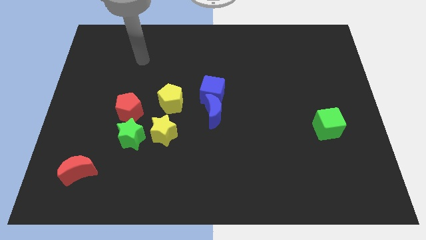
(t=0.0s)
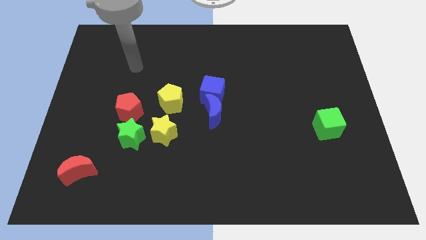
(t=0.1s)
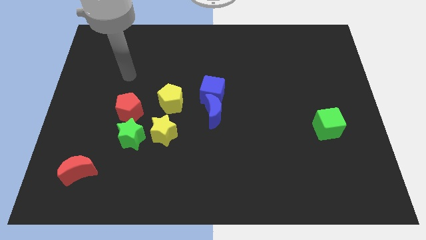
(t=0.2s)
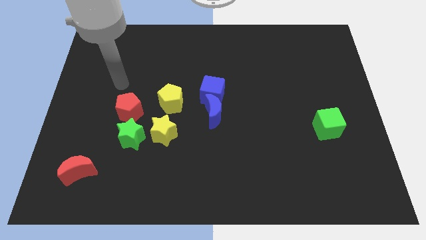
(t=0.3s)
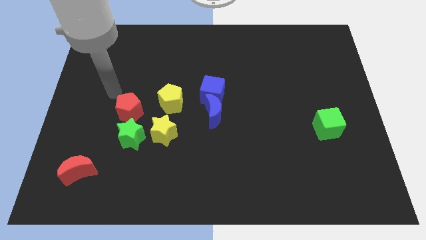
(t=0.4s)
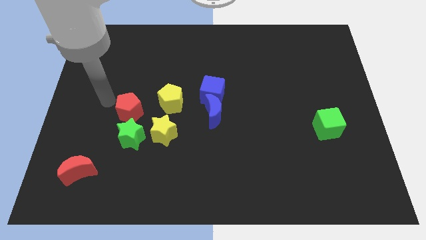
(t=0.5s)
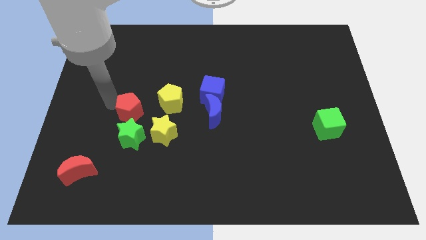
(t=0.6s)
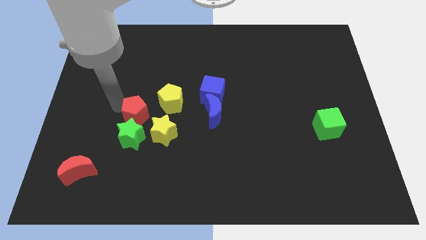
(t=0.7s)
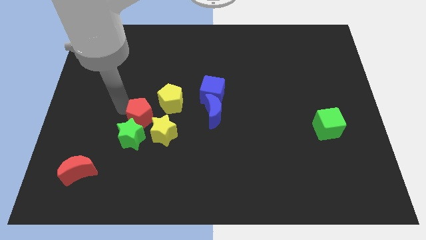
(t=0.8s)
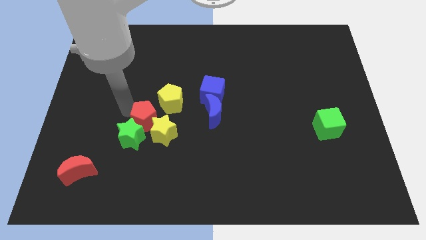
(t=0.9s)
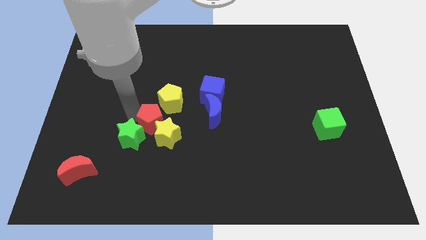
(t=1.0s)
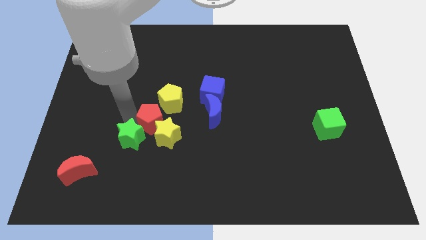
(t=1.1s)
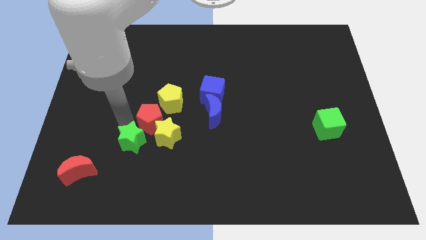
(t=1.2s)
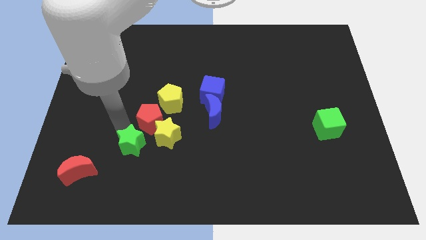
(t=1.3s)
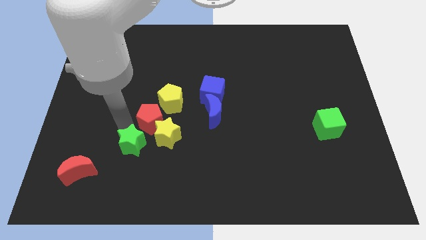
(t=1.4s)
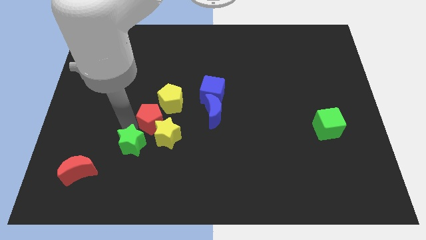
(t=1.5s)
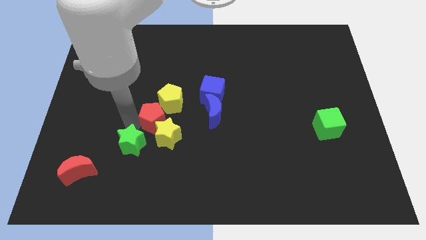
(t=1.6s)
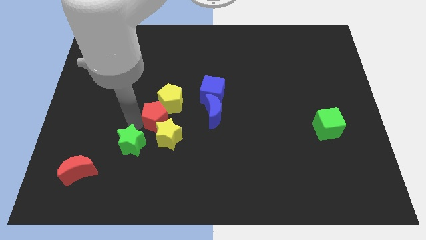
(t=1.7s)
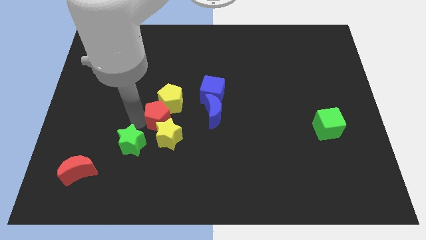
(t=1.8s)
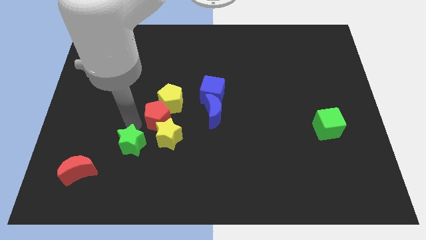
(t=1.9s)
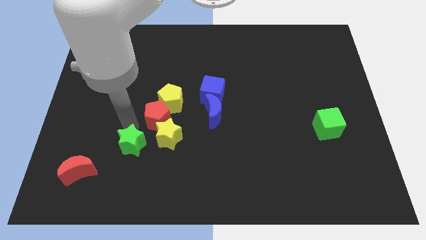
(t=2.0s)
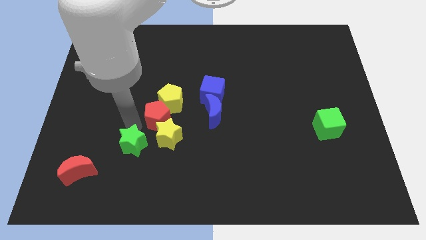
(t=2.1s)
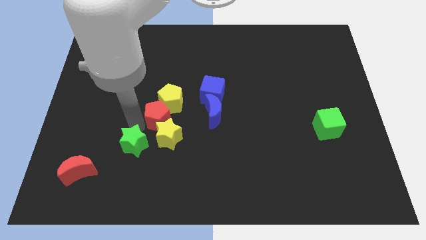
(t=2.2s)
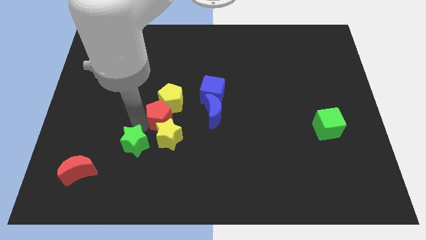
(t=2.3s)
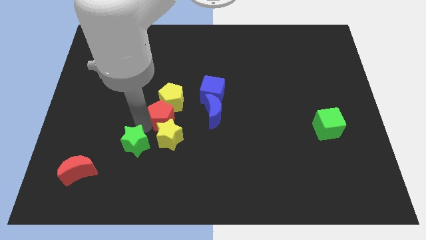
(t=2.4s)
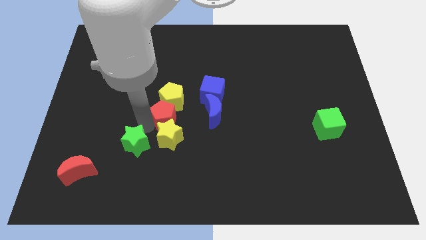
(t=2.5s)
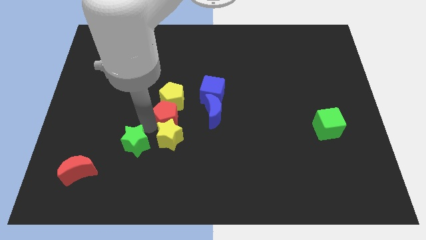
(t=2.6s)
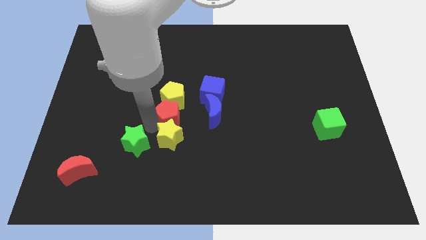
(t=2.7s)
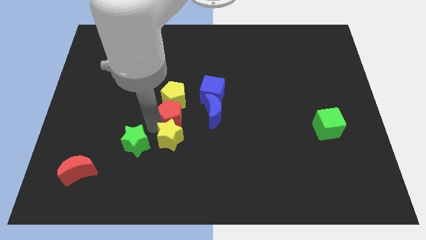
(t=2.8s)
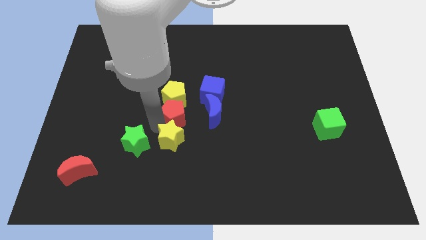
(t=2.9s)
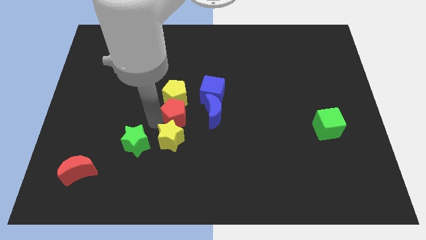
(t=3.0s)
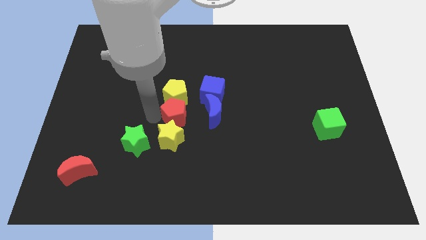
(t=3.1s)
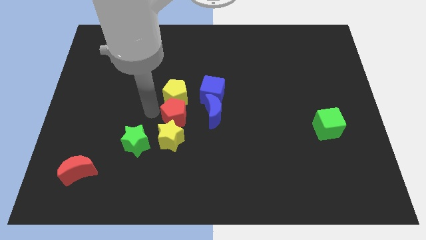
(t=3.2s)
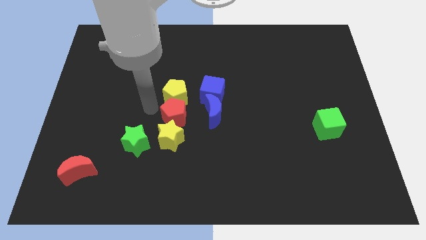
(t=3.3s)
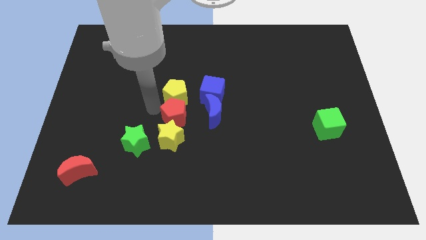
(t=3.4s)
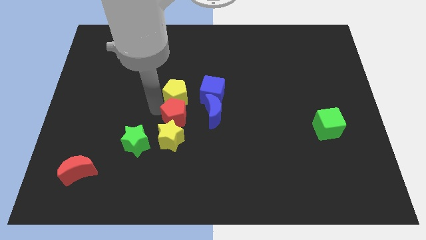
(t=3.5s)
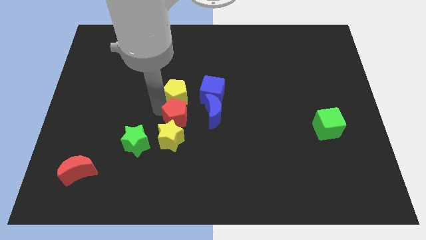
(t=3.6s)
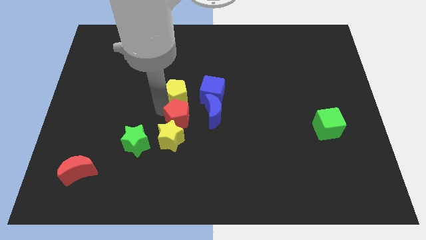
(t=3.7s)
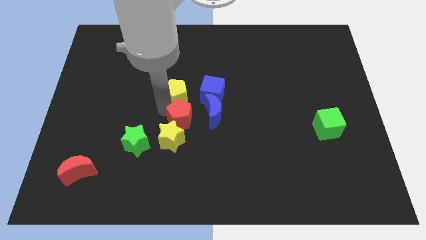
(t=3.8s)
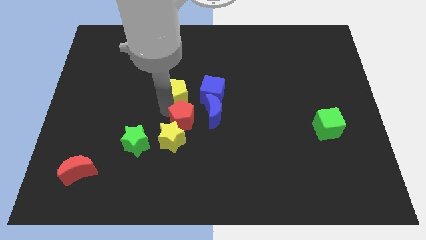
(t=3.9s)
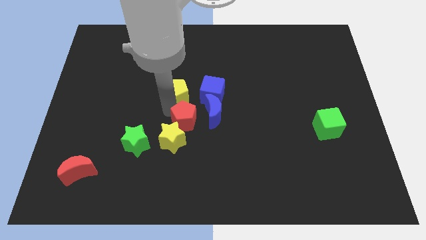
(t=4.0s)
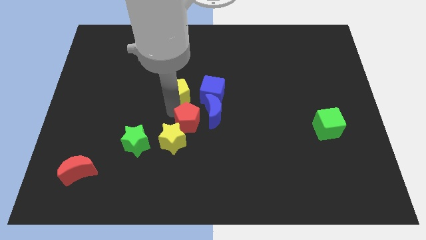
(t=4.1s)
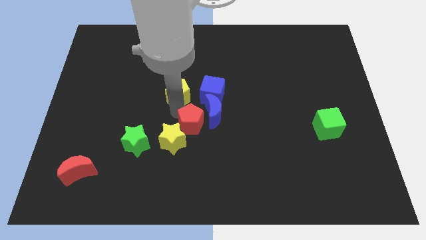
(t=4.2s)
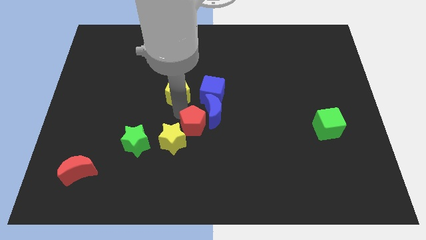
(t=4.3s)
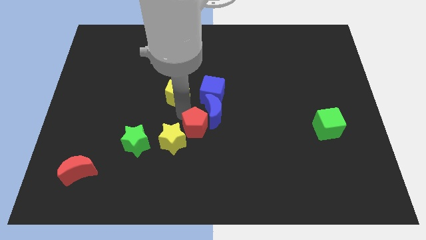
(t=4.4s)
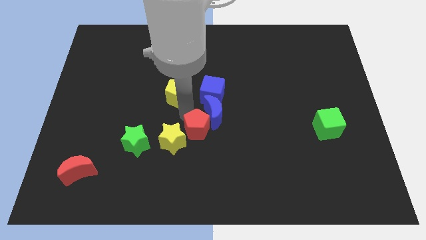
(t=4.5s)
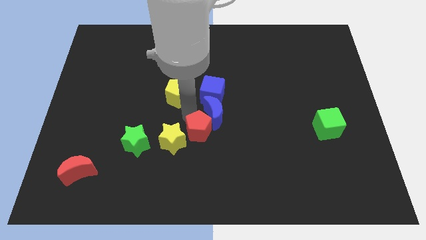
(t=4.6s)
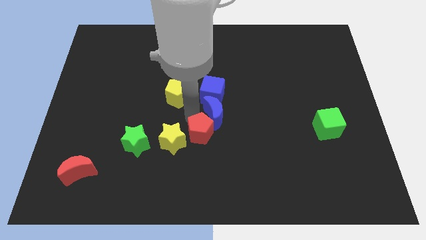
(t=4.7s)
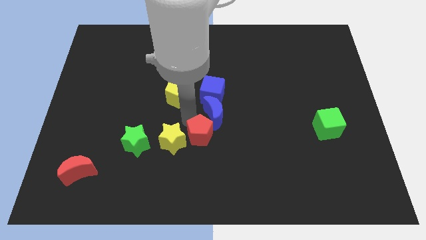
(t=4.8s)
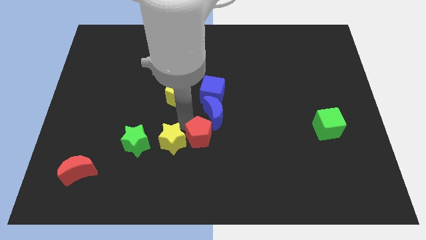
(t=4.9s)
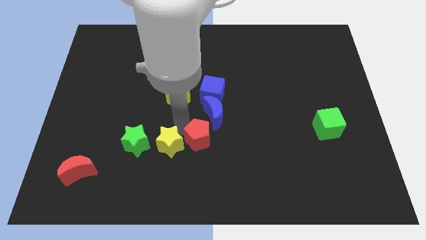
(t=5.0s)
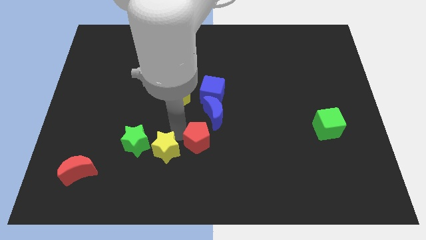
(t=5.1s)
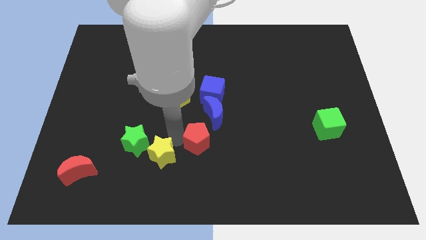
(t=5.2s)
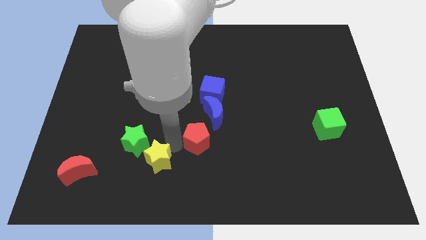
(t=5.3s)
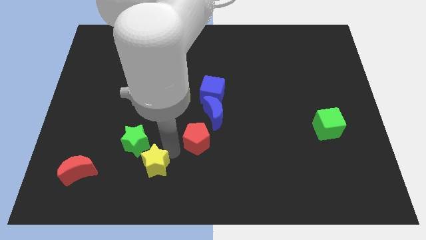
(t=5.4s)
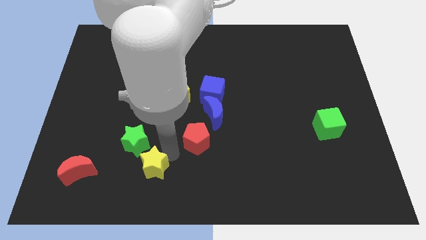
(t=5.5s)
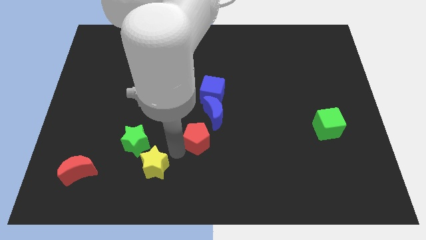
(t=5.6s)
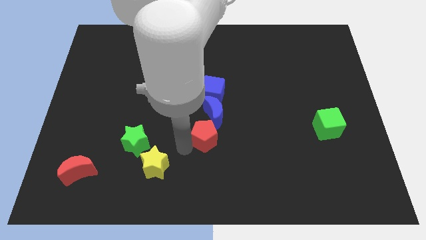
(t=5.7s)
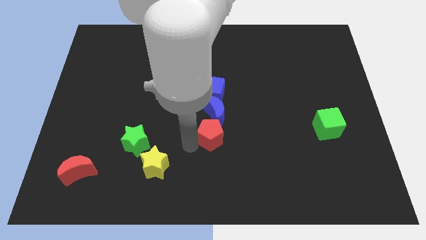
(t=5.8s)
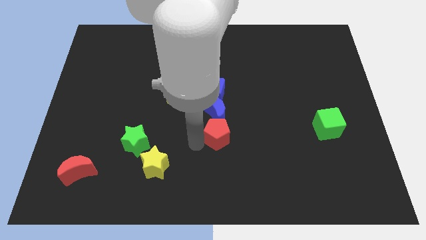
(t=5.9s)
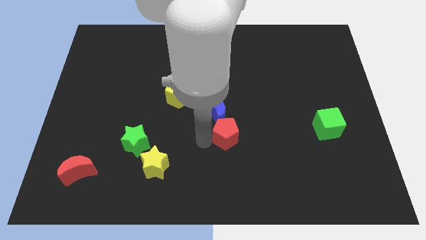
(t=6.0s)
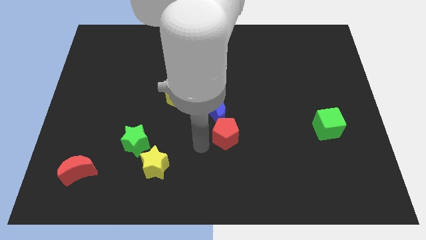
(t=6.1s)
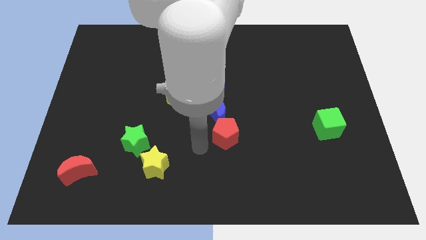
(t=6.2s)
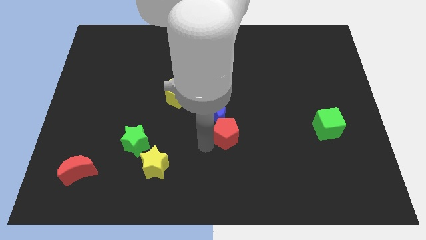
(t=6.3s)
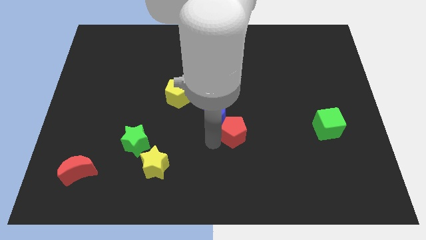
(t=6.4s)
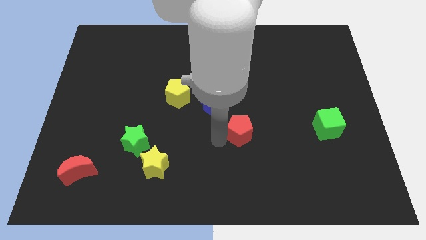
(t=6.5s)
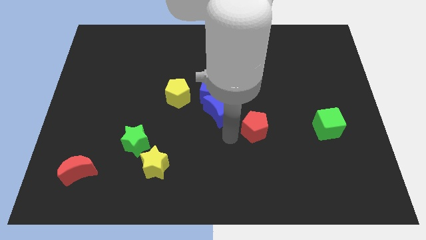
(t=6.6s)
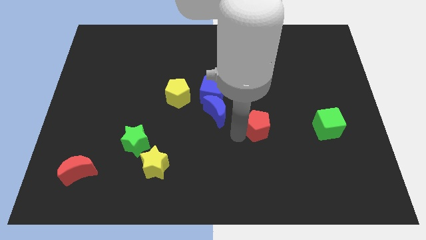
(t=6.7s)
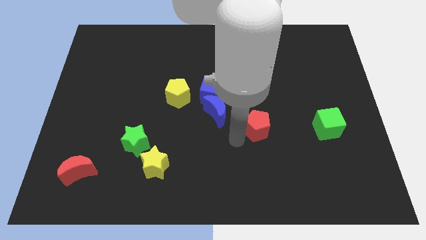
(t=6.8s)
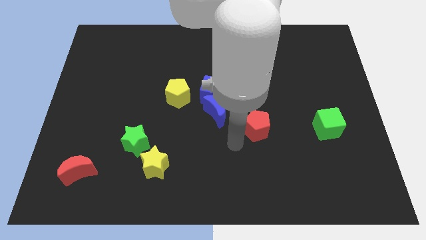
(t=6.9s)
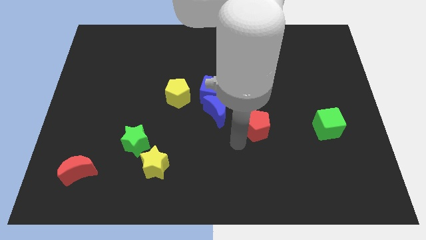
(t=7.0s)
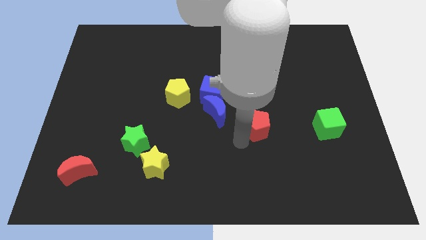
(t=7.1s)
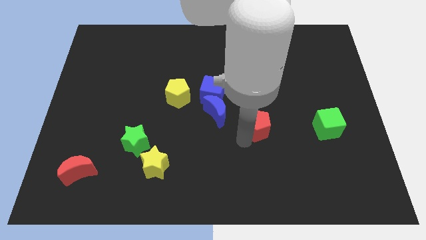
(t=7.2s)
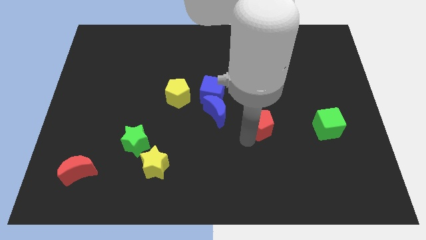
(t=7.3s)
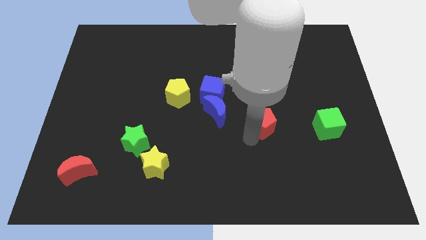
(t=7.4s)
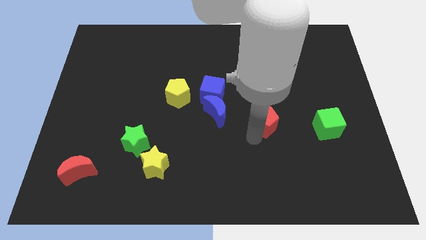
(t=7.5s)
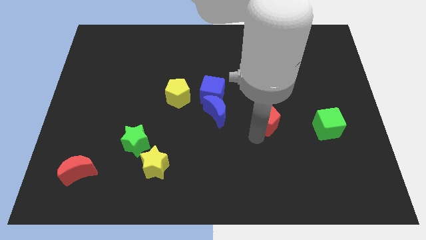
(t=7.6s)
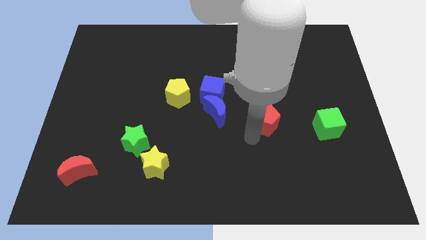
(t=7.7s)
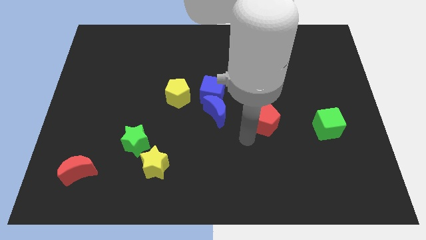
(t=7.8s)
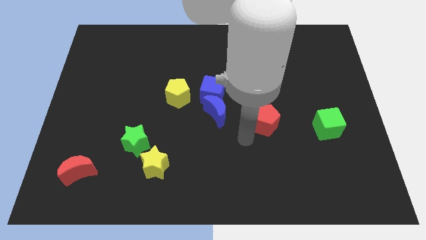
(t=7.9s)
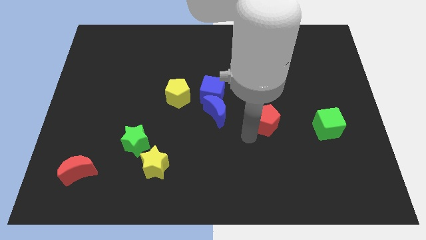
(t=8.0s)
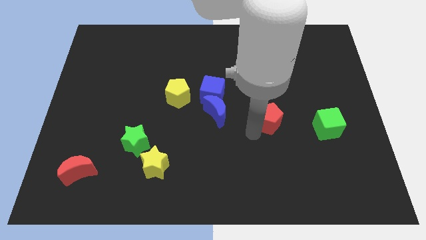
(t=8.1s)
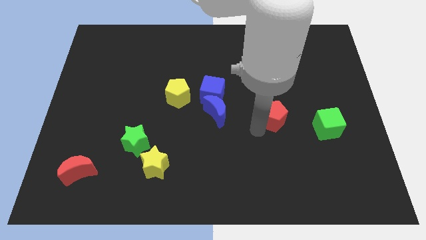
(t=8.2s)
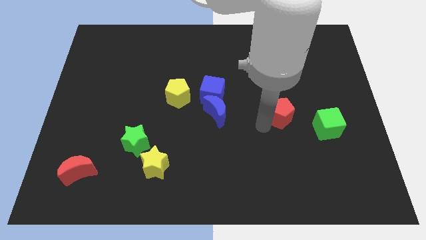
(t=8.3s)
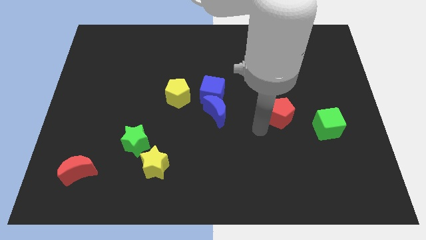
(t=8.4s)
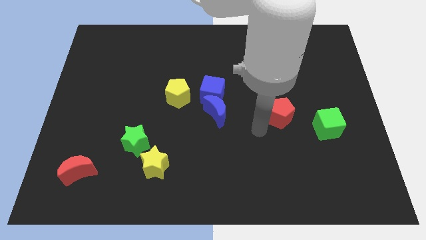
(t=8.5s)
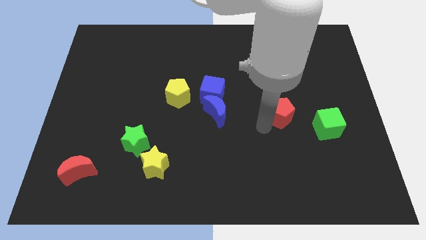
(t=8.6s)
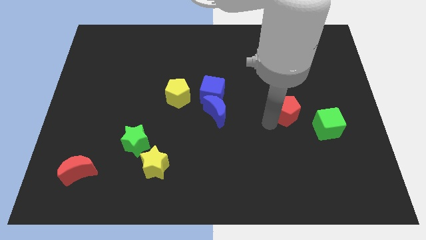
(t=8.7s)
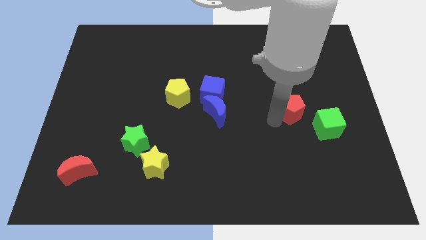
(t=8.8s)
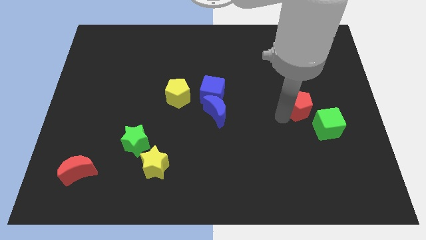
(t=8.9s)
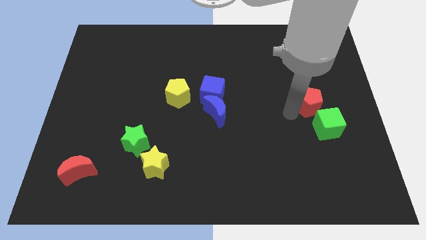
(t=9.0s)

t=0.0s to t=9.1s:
push the red pentagon to the top side of the green cube
